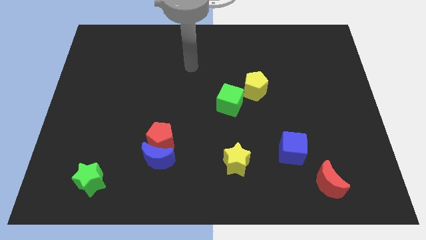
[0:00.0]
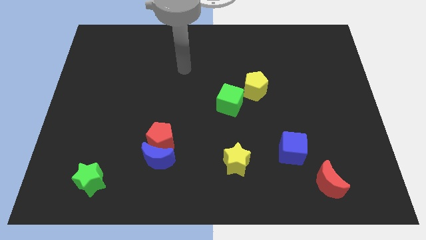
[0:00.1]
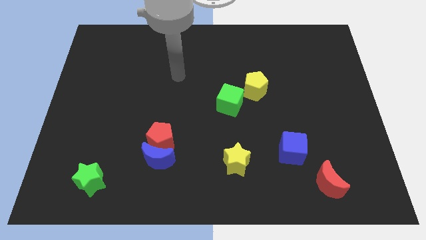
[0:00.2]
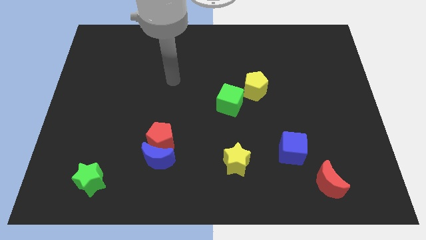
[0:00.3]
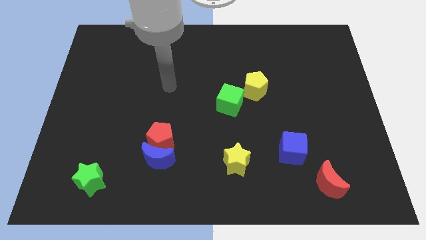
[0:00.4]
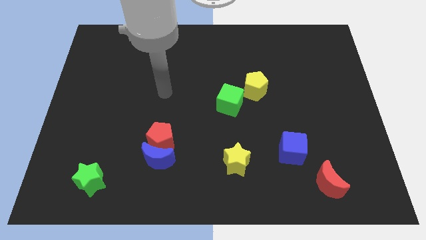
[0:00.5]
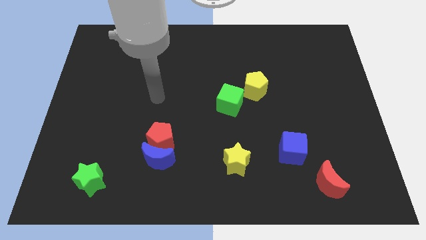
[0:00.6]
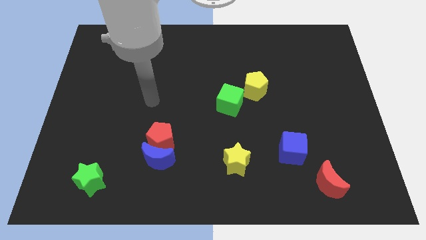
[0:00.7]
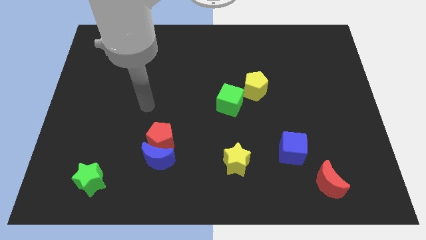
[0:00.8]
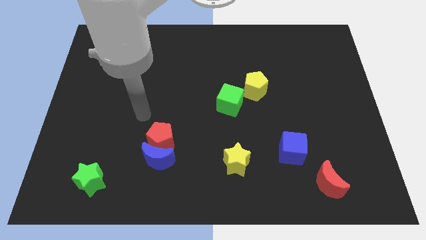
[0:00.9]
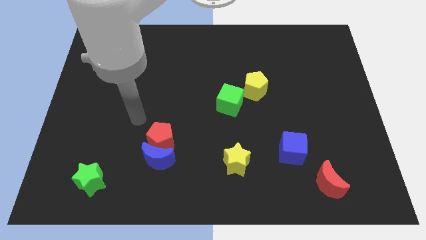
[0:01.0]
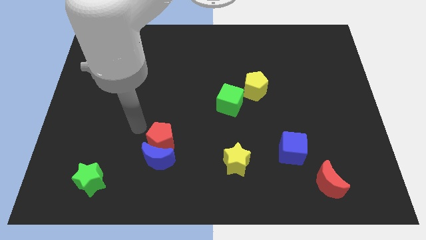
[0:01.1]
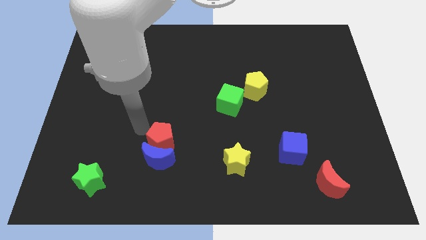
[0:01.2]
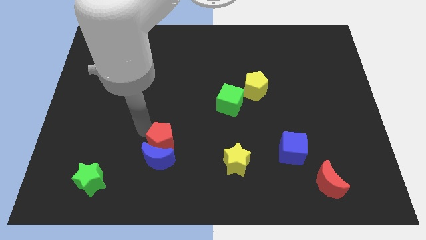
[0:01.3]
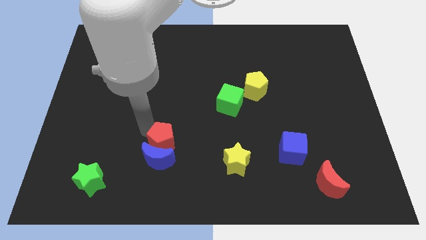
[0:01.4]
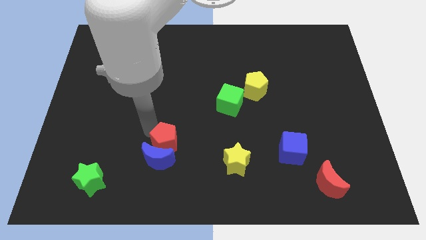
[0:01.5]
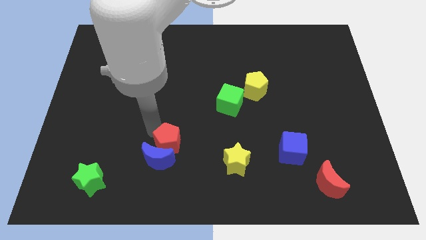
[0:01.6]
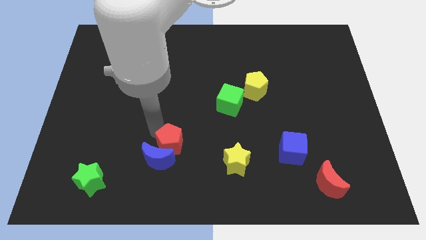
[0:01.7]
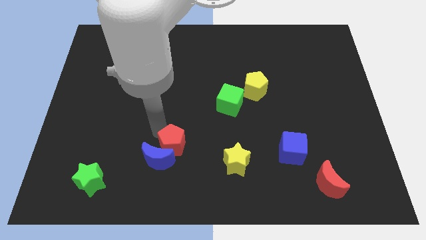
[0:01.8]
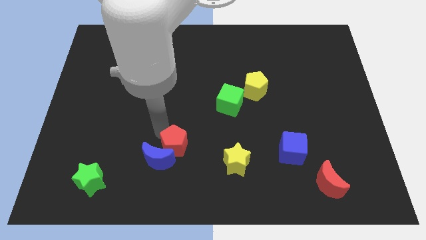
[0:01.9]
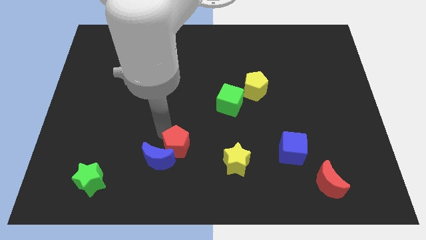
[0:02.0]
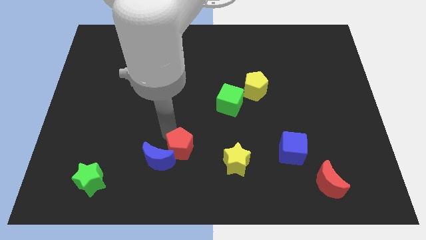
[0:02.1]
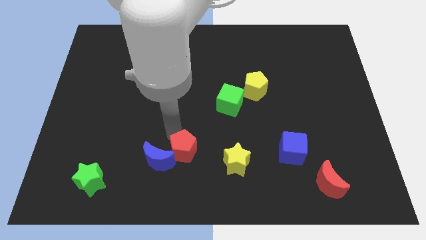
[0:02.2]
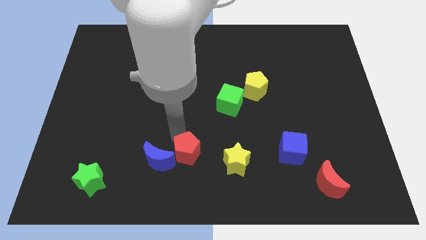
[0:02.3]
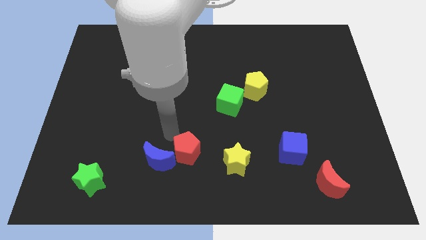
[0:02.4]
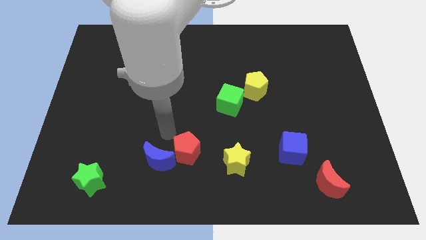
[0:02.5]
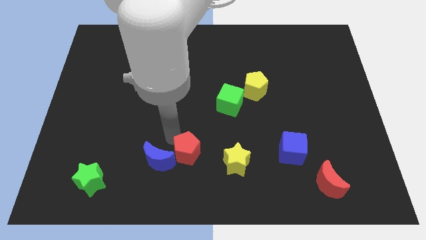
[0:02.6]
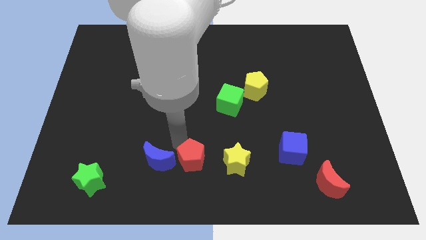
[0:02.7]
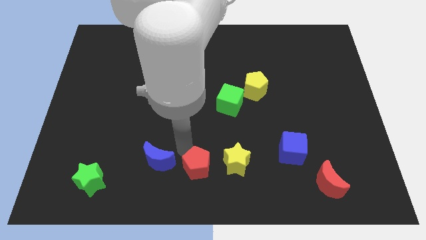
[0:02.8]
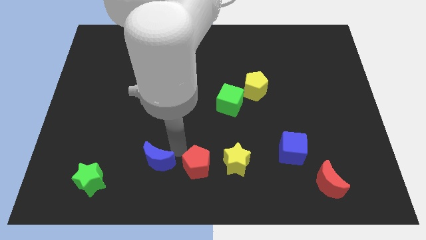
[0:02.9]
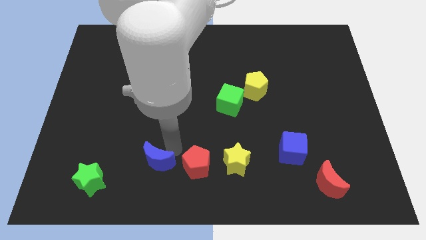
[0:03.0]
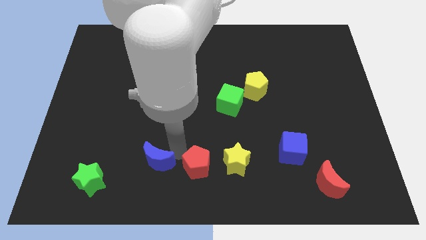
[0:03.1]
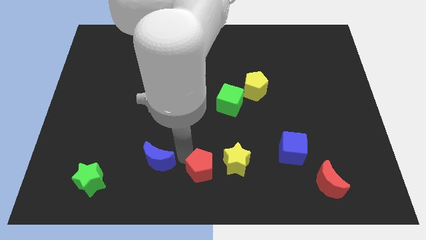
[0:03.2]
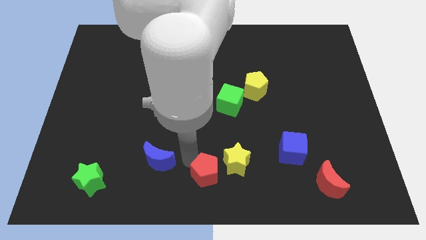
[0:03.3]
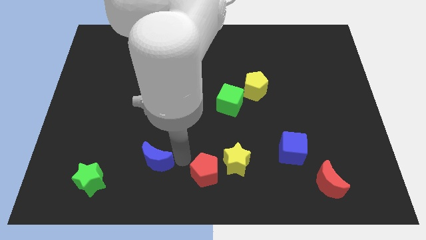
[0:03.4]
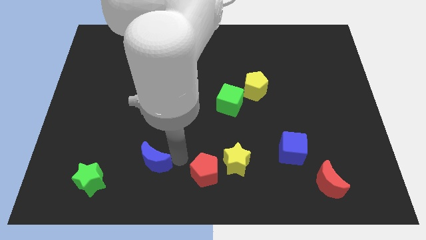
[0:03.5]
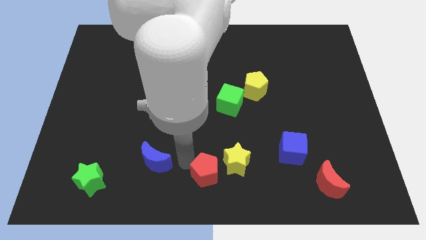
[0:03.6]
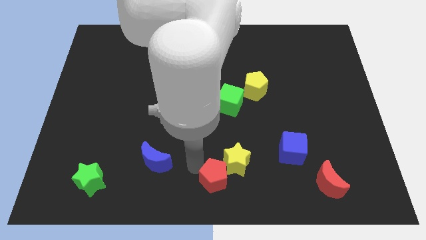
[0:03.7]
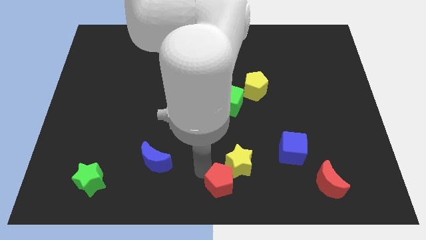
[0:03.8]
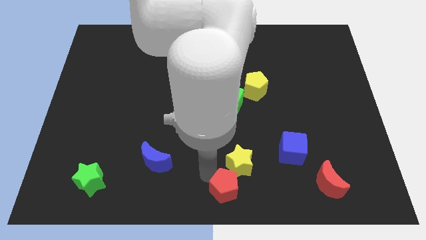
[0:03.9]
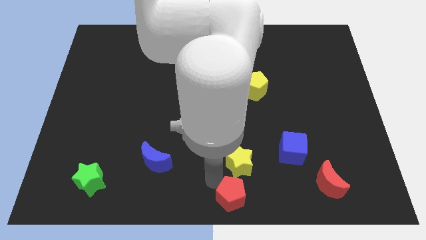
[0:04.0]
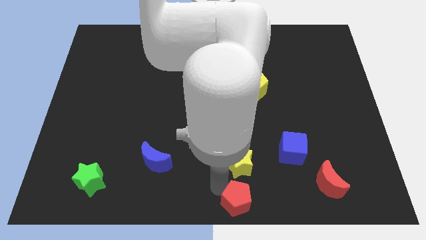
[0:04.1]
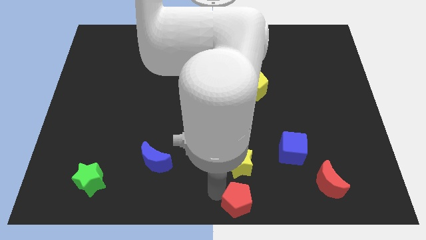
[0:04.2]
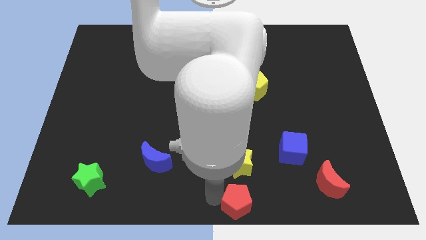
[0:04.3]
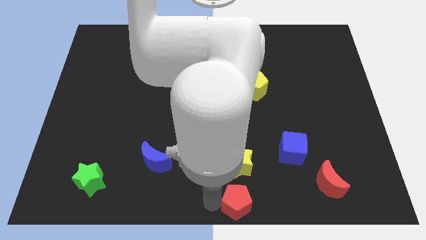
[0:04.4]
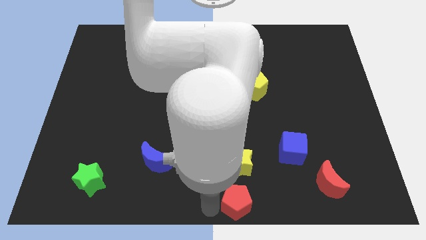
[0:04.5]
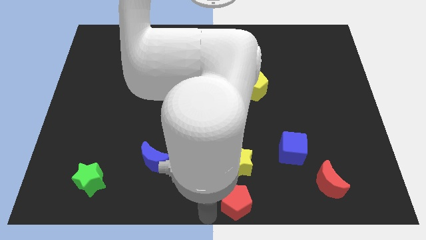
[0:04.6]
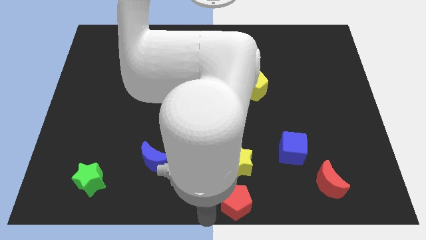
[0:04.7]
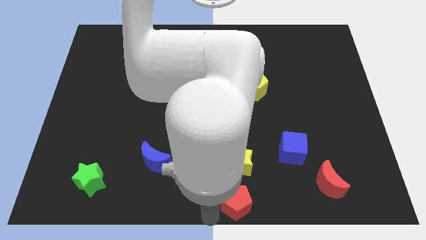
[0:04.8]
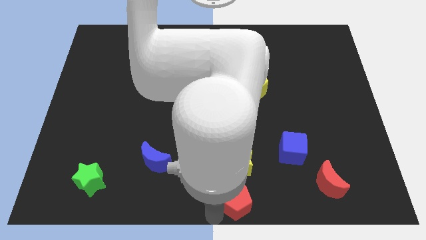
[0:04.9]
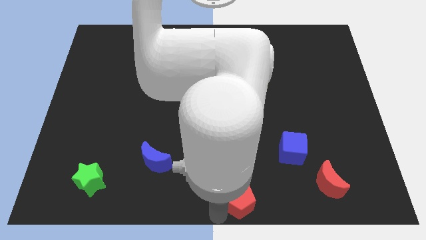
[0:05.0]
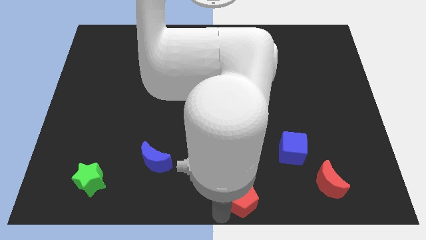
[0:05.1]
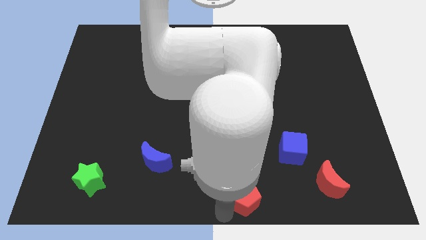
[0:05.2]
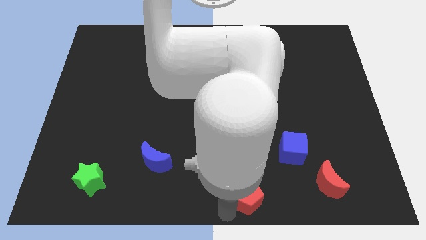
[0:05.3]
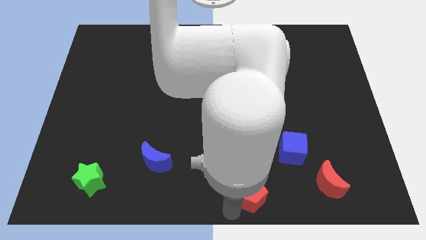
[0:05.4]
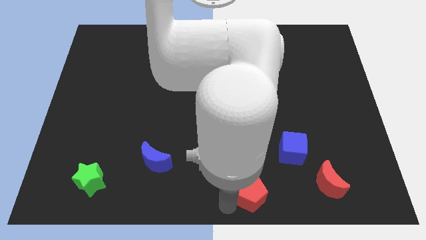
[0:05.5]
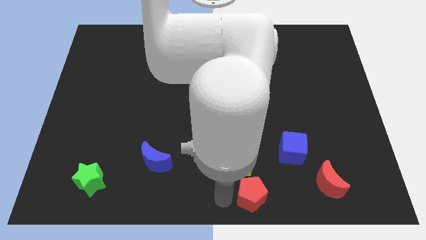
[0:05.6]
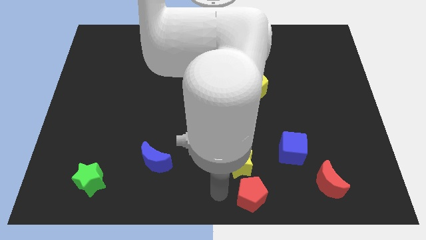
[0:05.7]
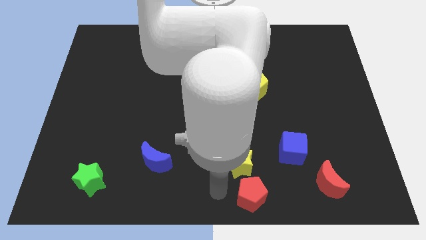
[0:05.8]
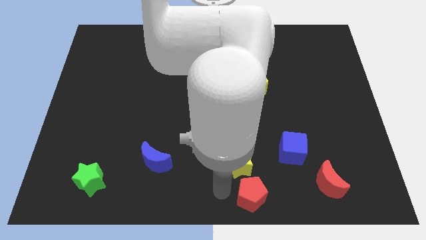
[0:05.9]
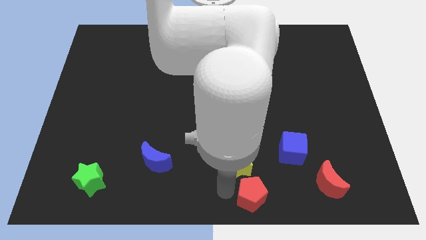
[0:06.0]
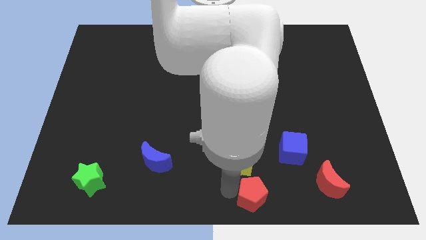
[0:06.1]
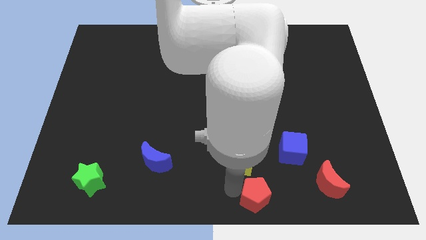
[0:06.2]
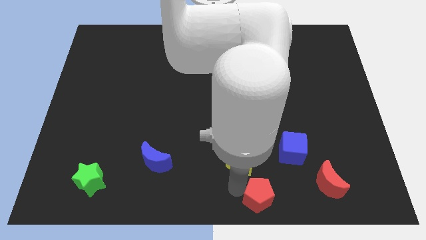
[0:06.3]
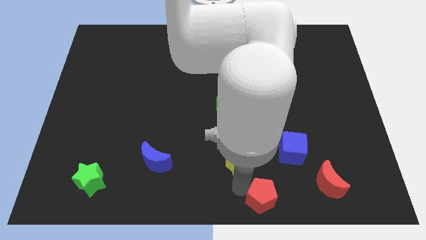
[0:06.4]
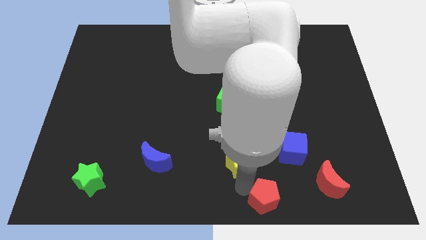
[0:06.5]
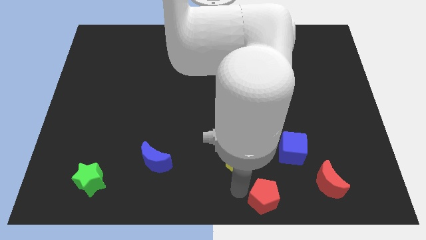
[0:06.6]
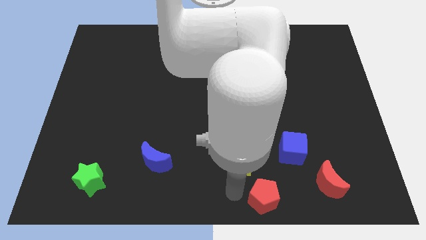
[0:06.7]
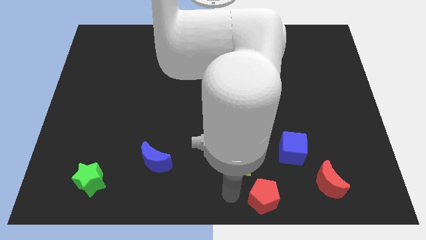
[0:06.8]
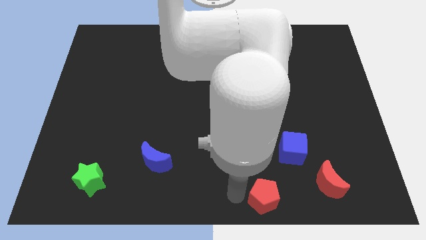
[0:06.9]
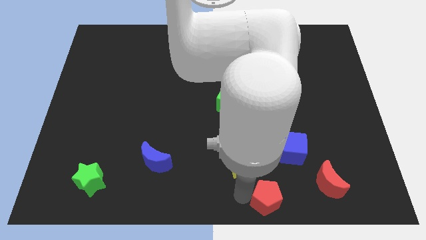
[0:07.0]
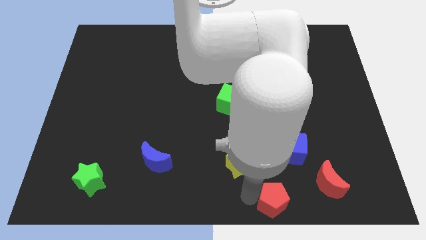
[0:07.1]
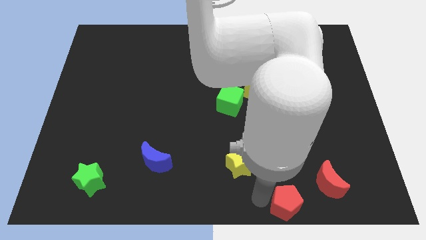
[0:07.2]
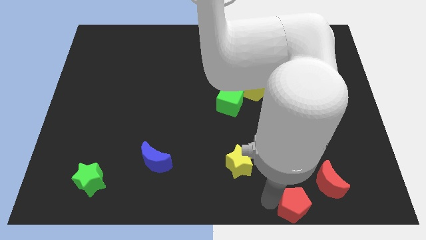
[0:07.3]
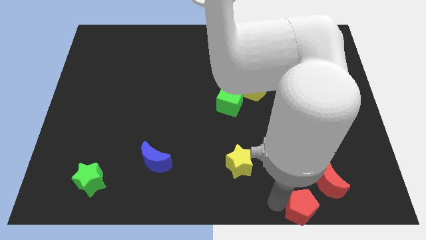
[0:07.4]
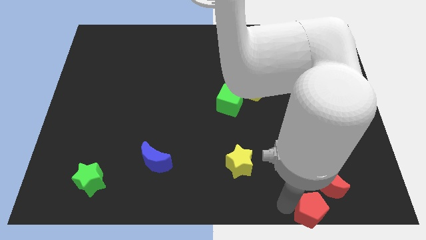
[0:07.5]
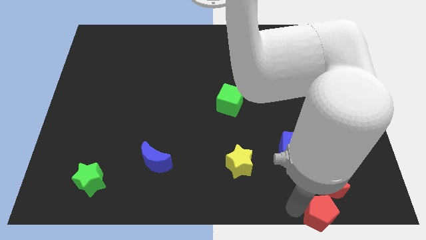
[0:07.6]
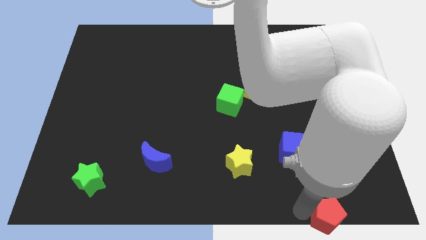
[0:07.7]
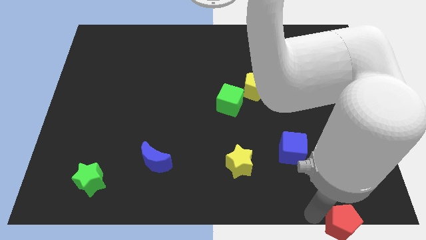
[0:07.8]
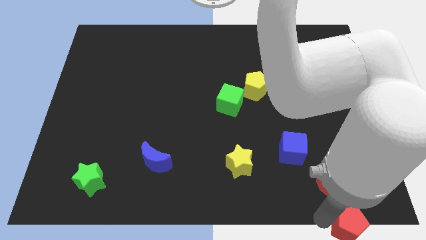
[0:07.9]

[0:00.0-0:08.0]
put the red pentagon to the bottom right
